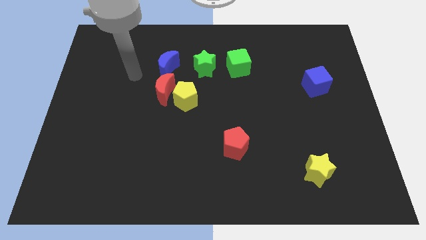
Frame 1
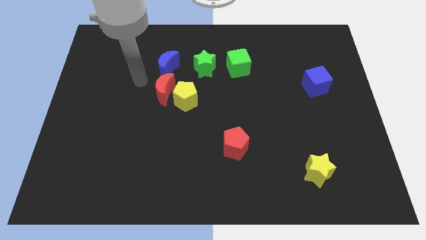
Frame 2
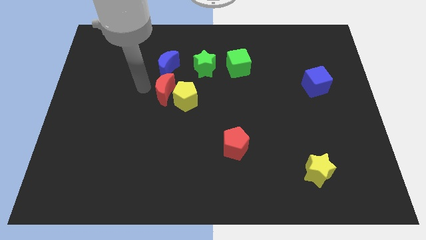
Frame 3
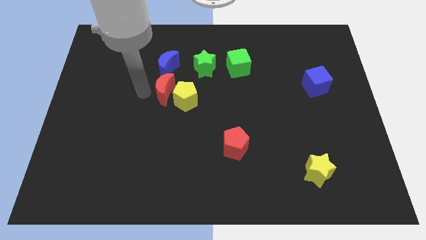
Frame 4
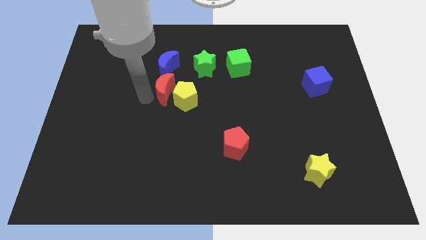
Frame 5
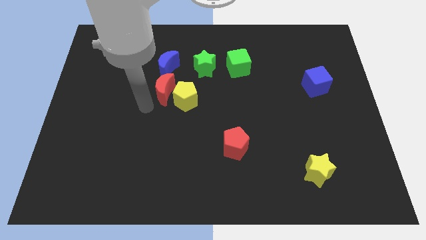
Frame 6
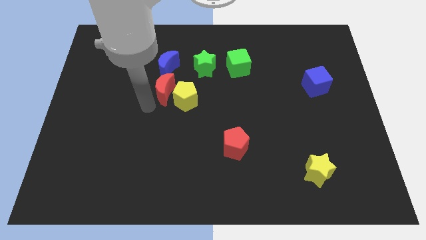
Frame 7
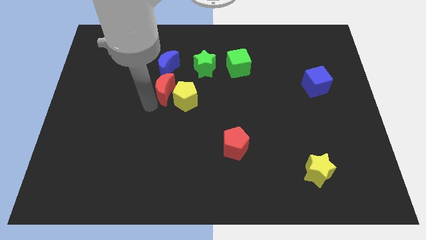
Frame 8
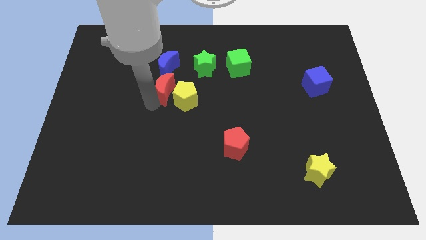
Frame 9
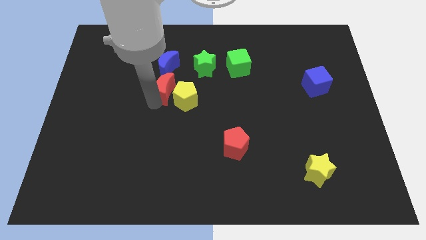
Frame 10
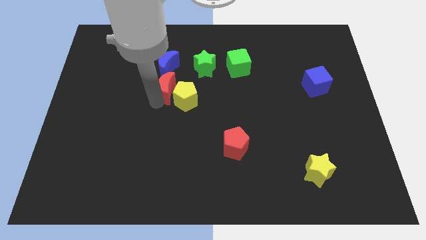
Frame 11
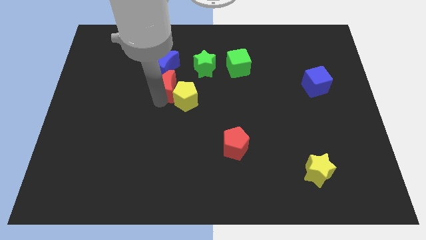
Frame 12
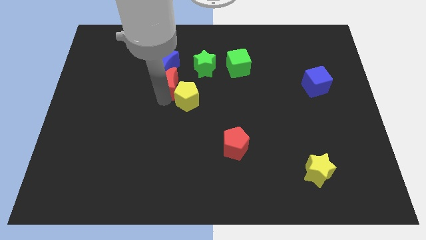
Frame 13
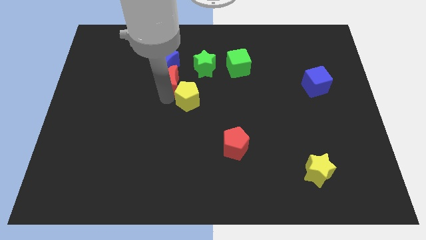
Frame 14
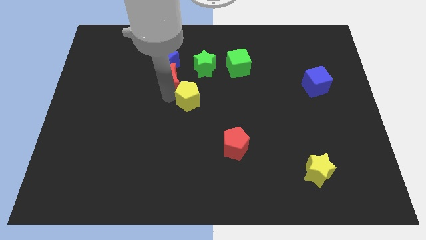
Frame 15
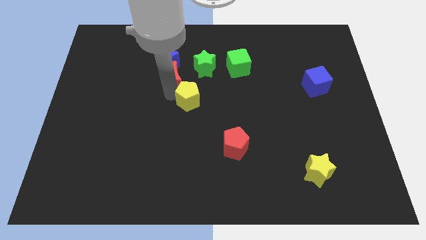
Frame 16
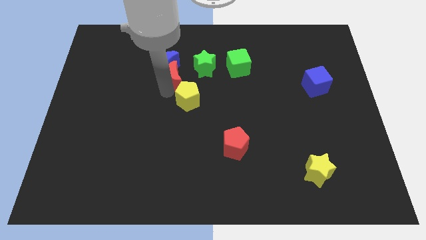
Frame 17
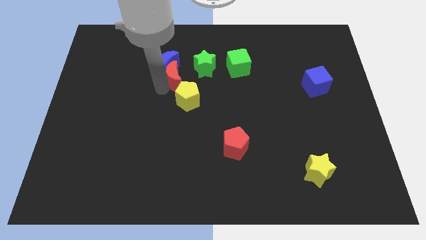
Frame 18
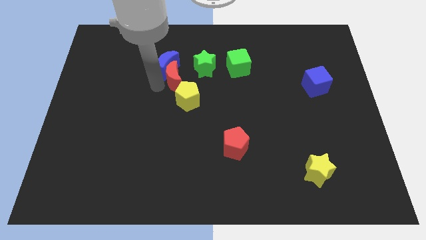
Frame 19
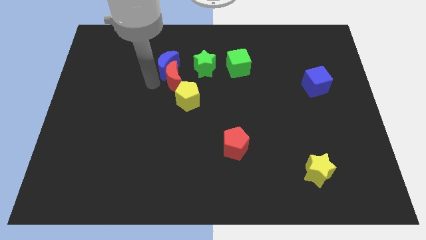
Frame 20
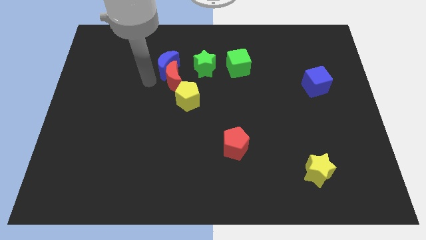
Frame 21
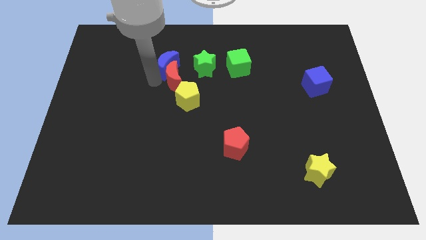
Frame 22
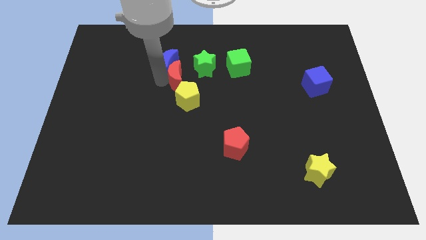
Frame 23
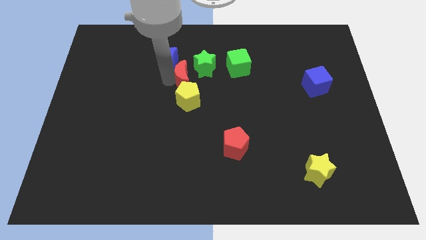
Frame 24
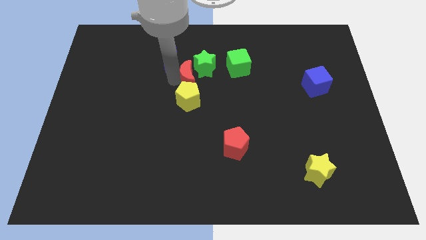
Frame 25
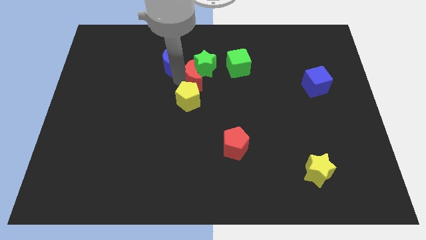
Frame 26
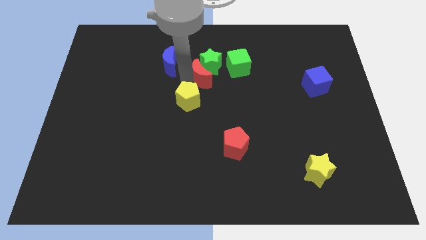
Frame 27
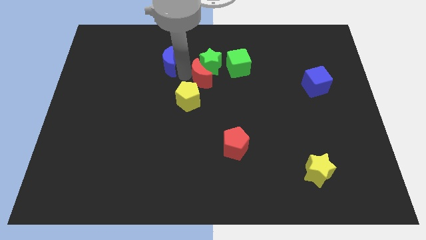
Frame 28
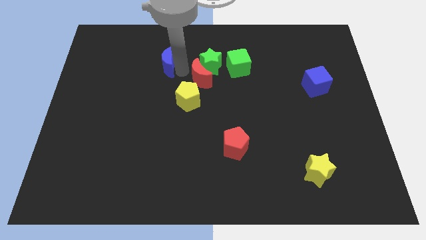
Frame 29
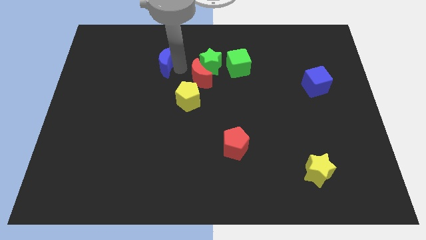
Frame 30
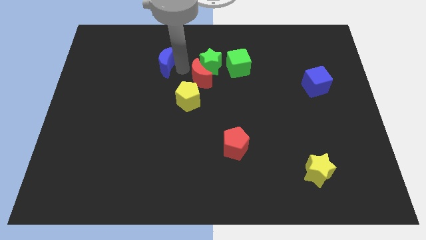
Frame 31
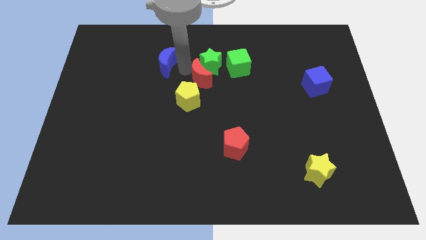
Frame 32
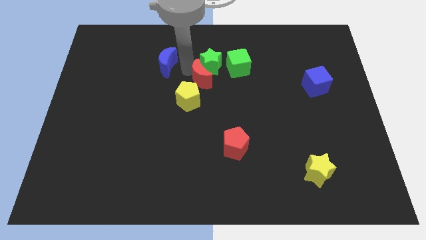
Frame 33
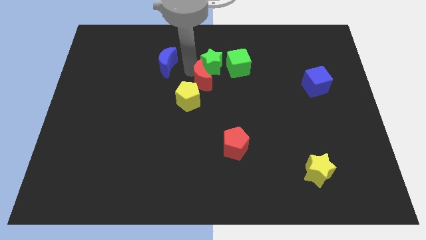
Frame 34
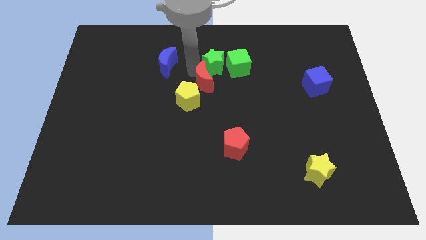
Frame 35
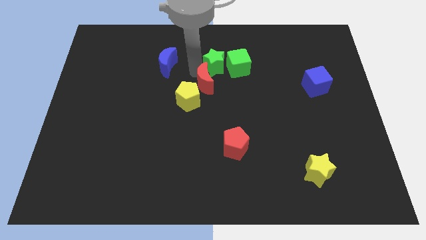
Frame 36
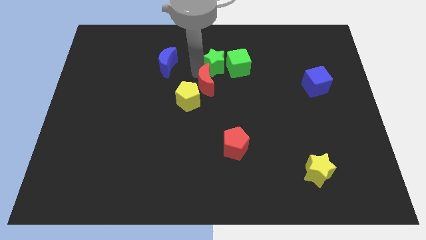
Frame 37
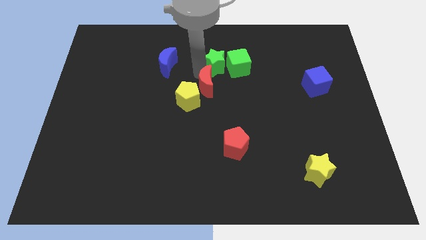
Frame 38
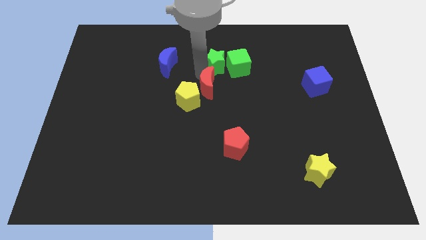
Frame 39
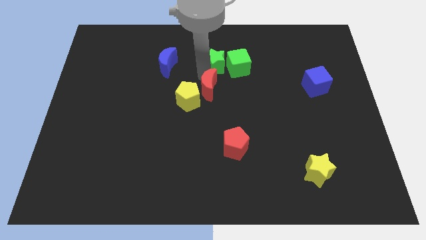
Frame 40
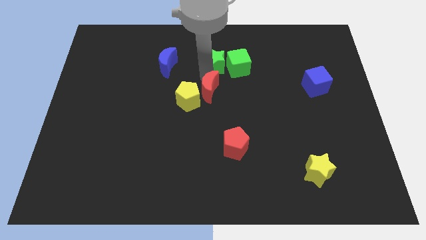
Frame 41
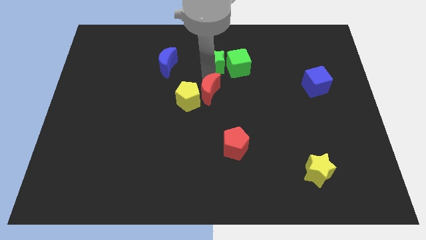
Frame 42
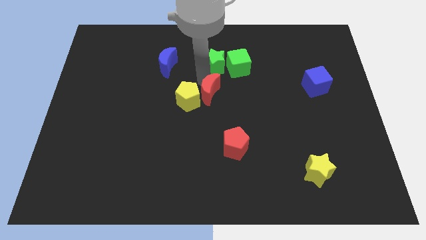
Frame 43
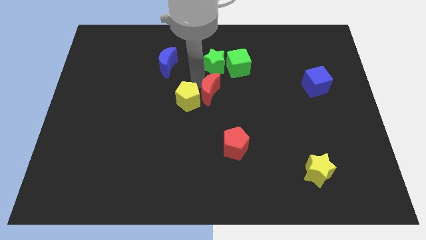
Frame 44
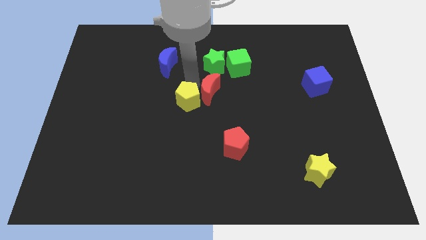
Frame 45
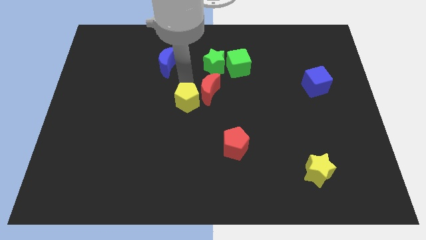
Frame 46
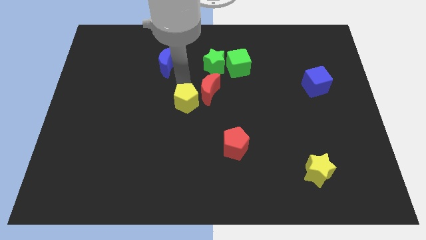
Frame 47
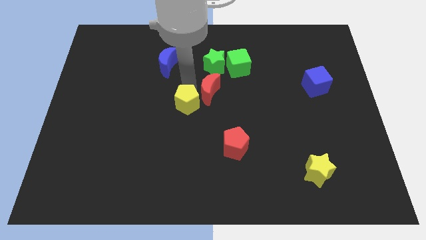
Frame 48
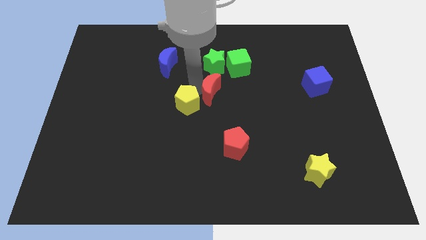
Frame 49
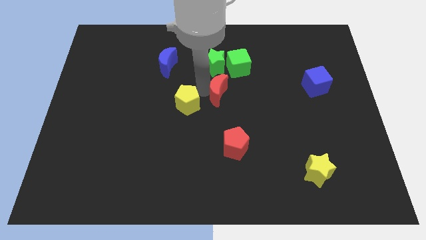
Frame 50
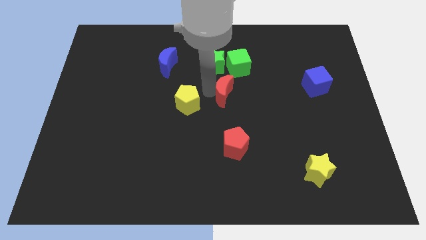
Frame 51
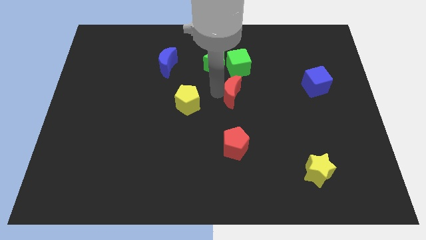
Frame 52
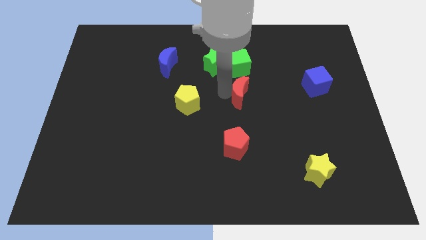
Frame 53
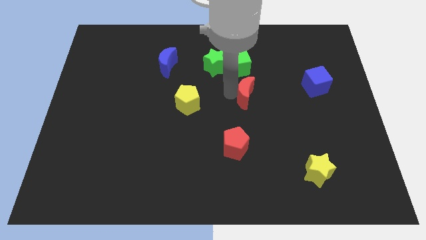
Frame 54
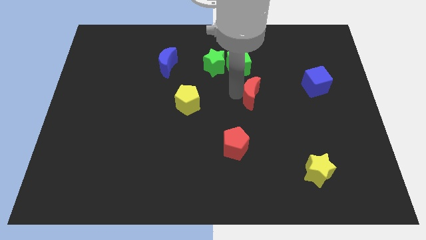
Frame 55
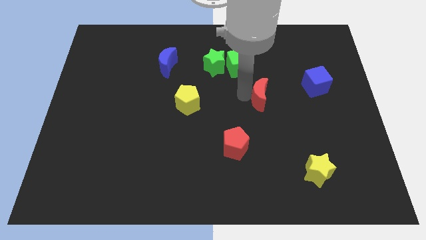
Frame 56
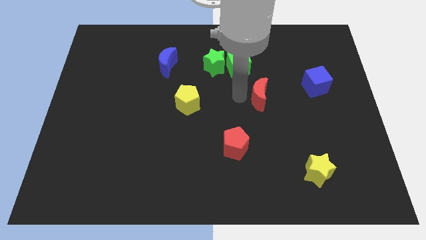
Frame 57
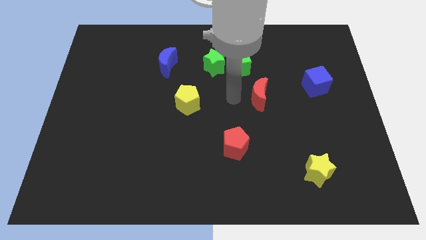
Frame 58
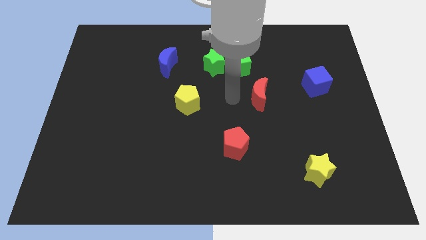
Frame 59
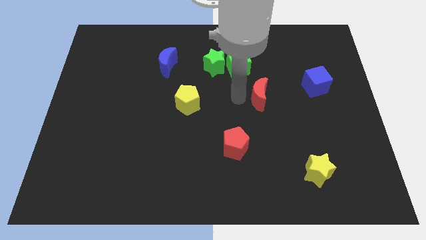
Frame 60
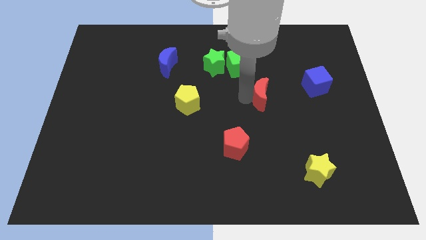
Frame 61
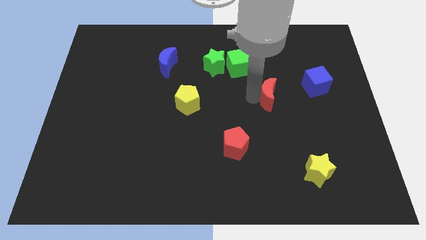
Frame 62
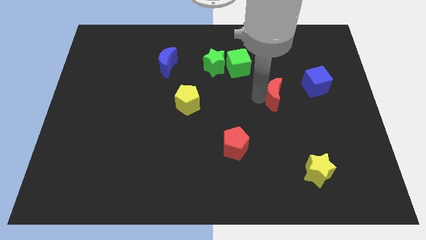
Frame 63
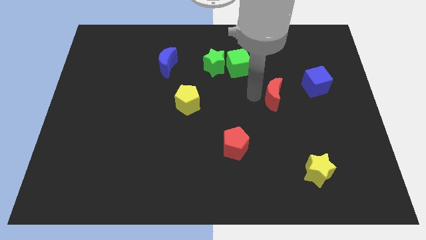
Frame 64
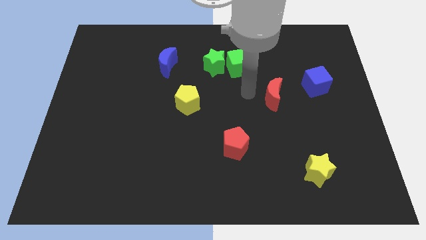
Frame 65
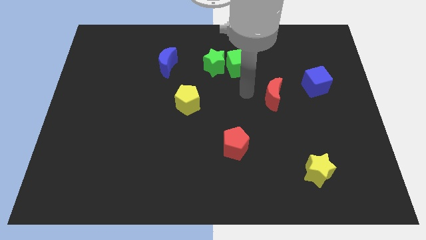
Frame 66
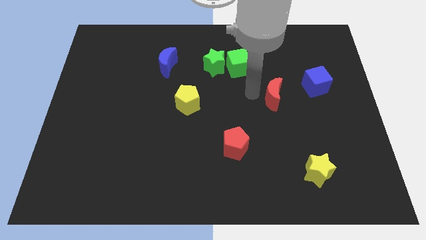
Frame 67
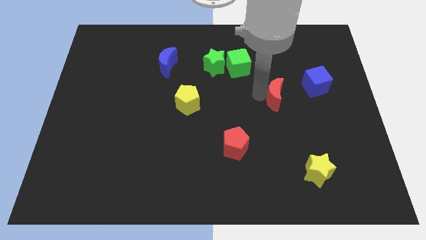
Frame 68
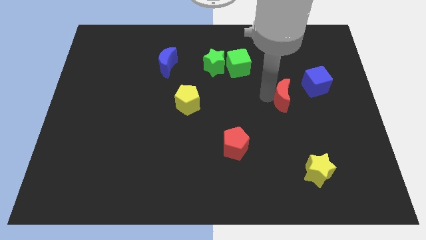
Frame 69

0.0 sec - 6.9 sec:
put the red moon to the bottom left side of the blue cube

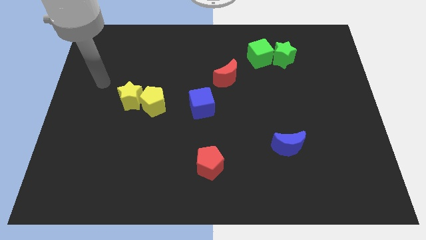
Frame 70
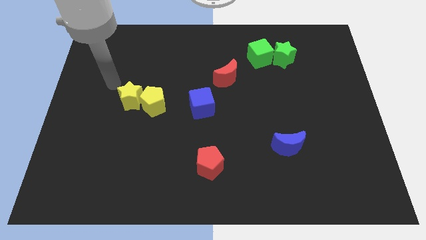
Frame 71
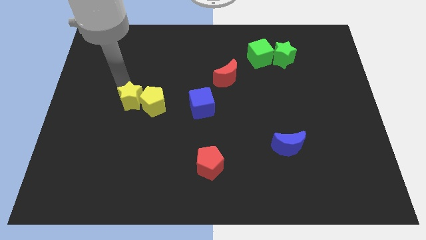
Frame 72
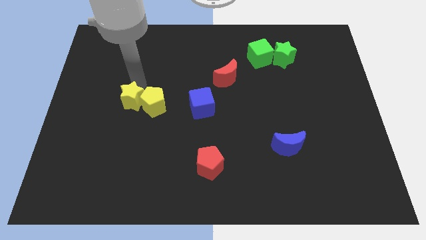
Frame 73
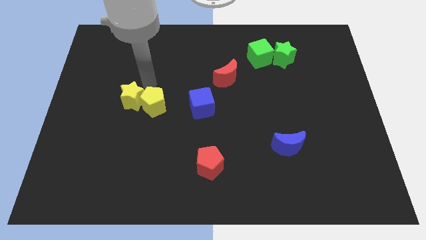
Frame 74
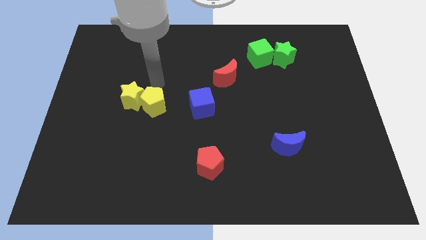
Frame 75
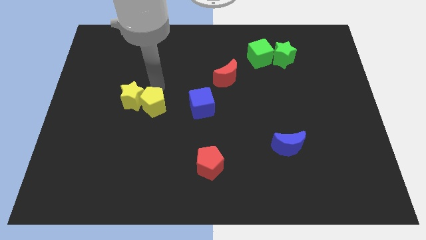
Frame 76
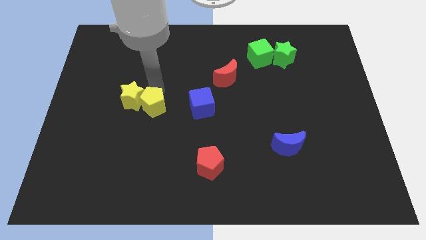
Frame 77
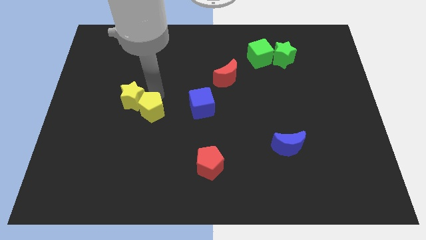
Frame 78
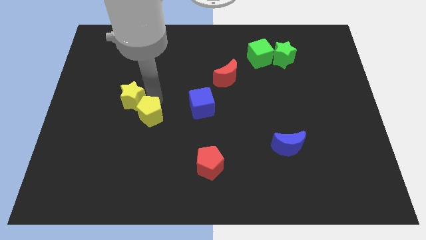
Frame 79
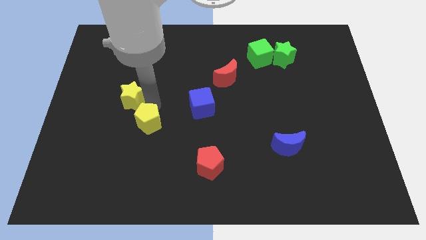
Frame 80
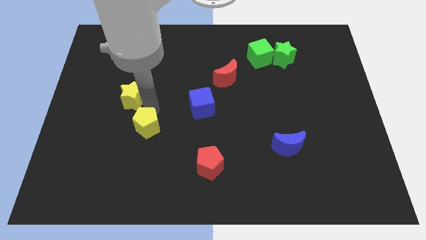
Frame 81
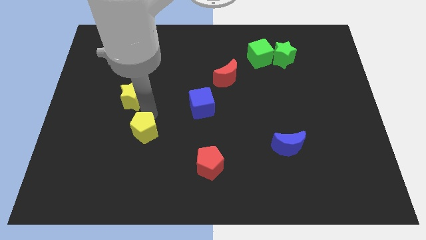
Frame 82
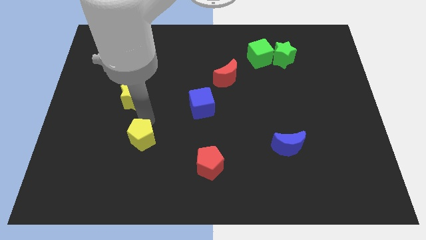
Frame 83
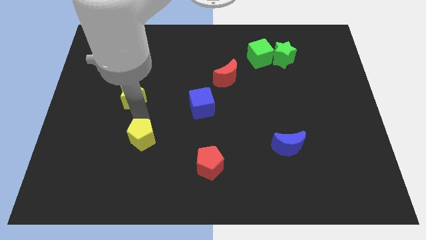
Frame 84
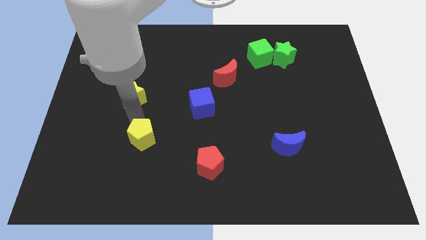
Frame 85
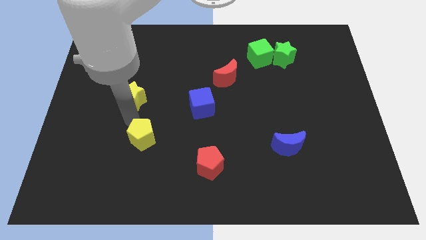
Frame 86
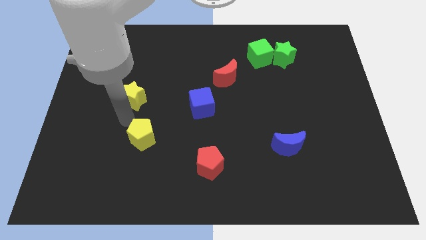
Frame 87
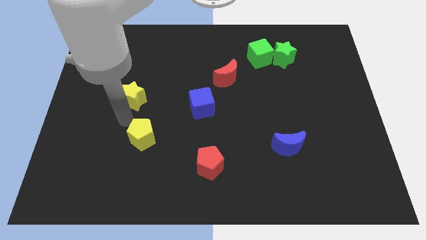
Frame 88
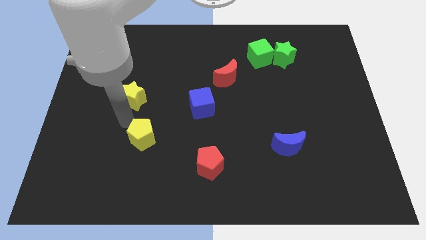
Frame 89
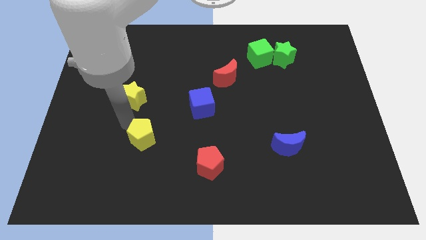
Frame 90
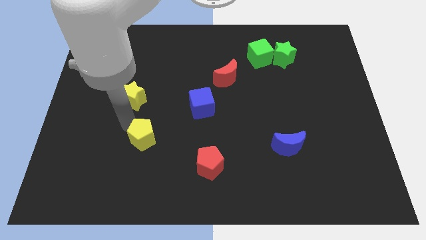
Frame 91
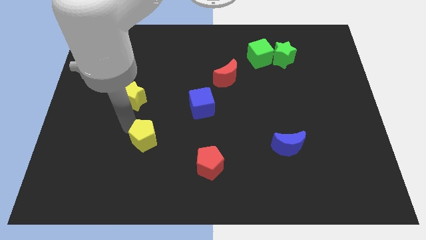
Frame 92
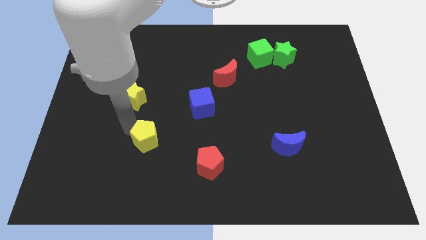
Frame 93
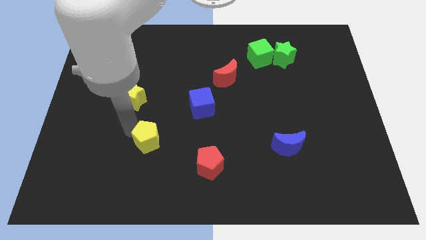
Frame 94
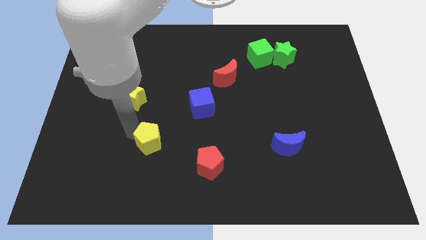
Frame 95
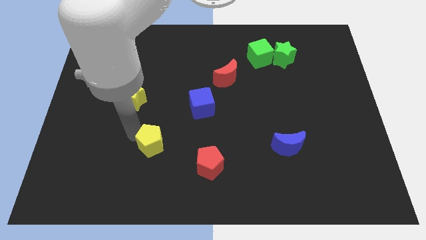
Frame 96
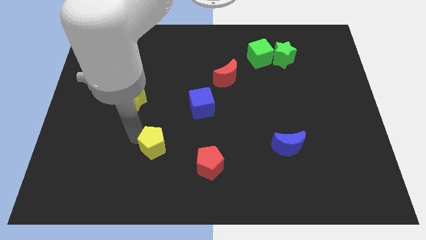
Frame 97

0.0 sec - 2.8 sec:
push the yellow pentagon to the left side of the red pentagon
